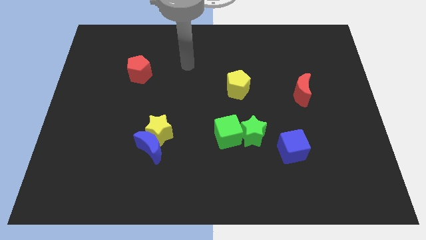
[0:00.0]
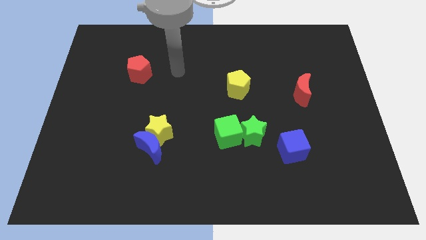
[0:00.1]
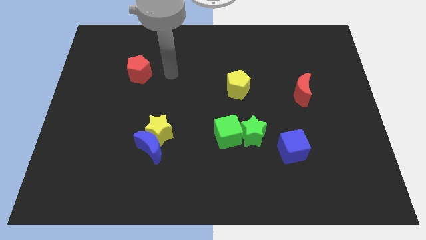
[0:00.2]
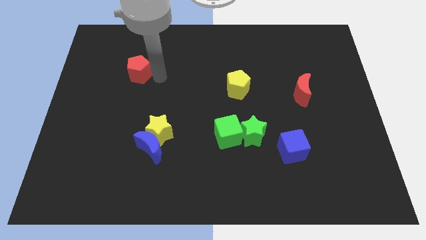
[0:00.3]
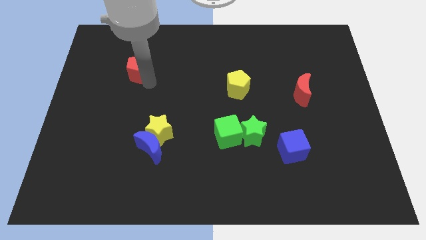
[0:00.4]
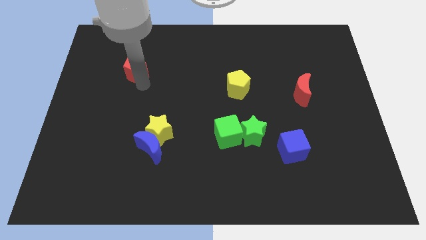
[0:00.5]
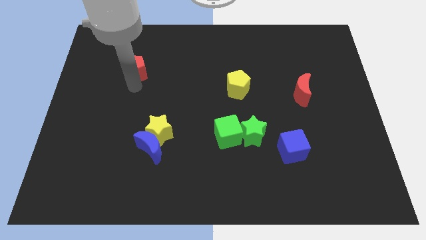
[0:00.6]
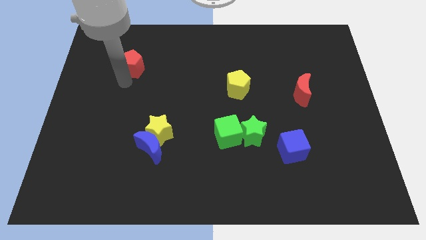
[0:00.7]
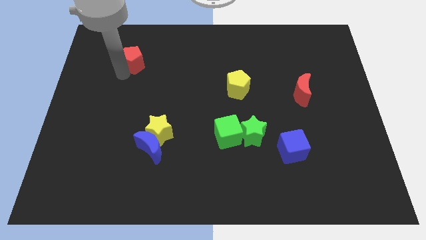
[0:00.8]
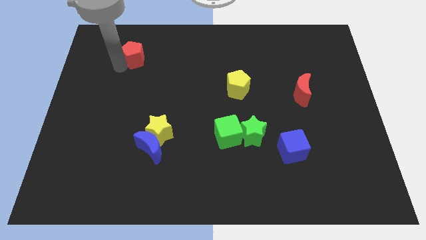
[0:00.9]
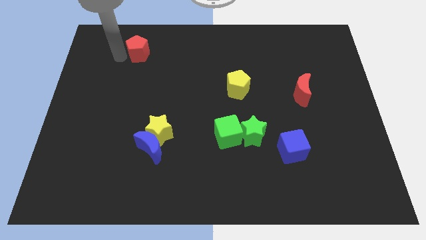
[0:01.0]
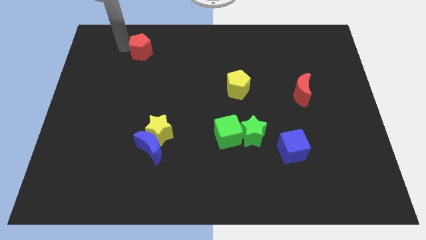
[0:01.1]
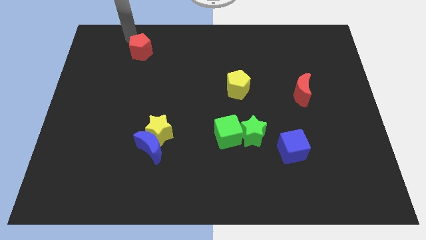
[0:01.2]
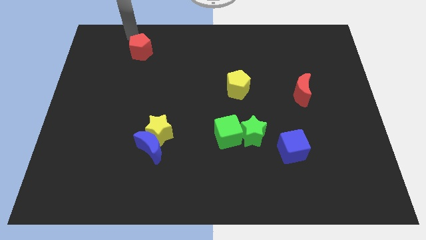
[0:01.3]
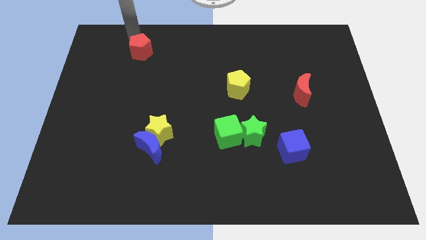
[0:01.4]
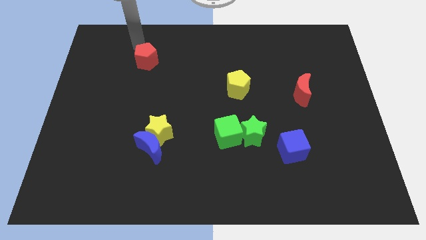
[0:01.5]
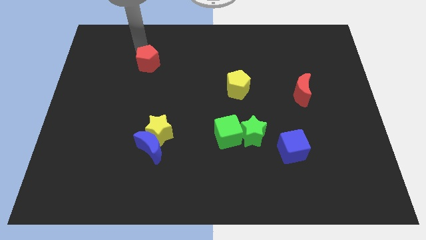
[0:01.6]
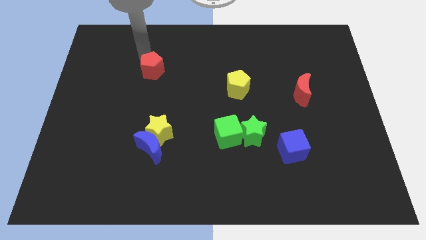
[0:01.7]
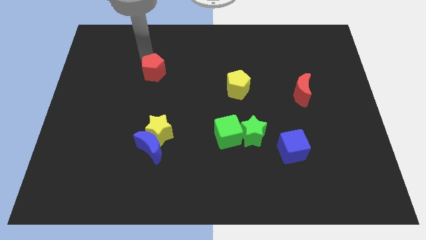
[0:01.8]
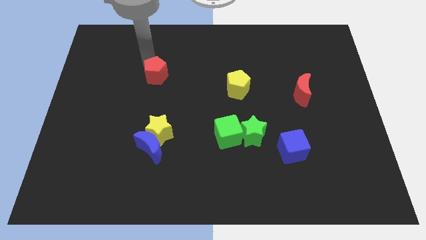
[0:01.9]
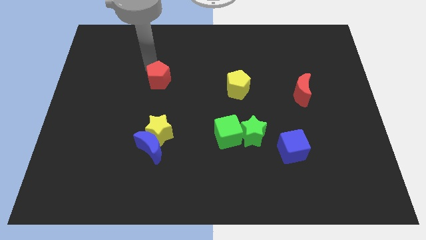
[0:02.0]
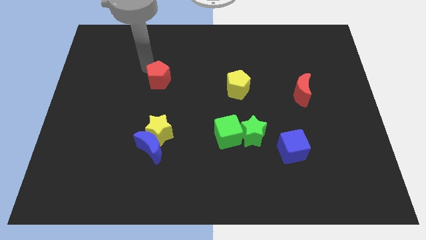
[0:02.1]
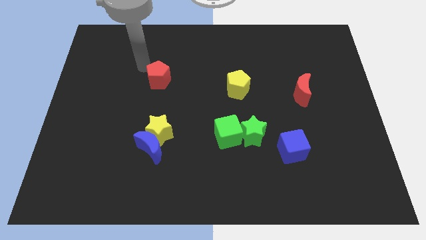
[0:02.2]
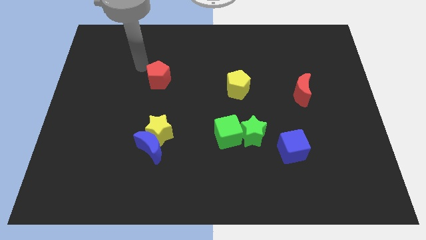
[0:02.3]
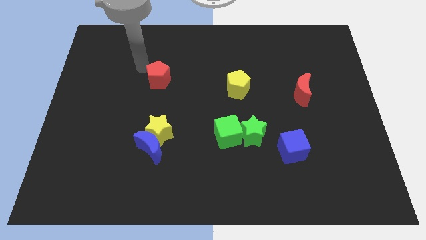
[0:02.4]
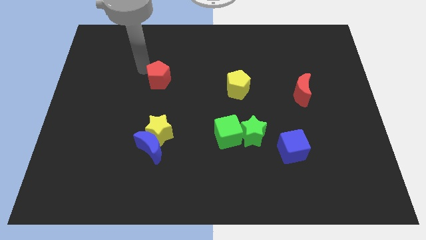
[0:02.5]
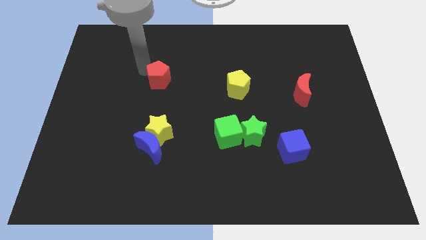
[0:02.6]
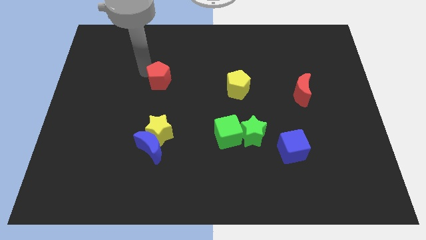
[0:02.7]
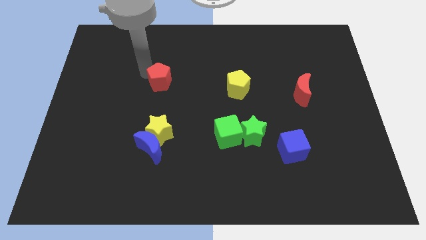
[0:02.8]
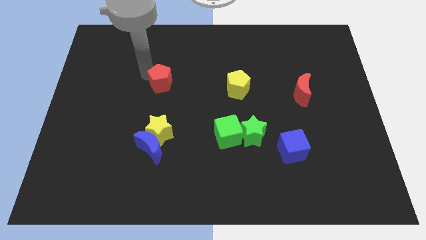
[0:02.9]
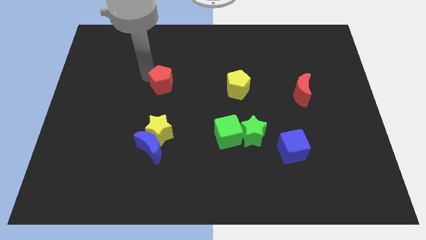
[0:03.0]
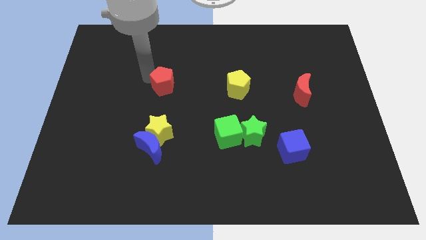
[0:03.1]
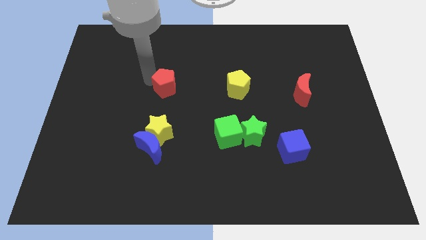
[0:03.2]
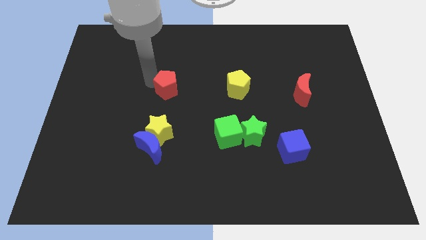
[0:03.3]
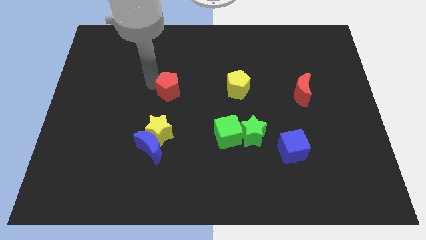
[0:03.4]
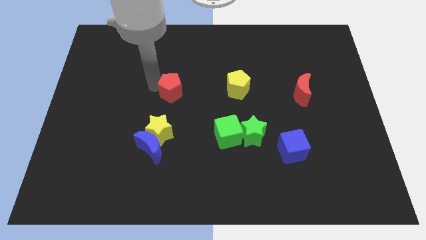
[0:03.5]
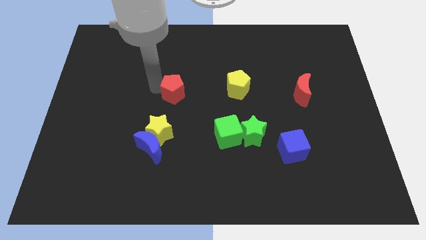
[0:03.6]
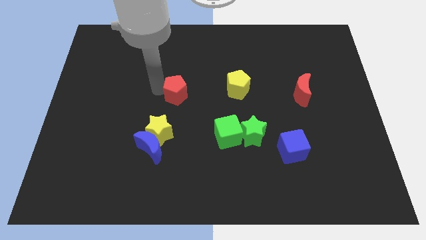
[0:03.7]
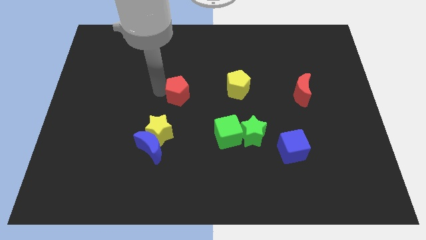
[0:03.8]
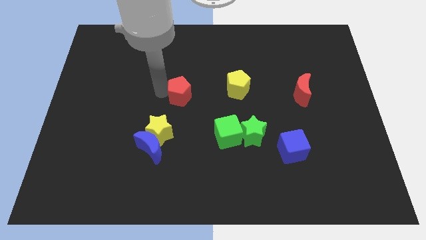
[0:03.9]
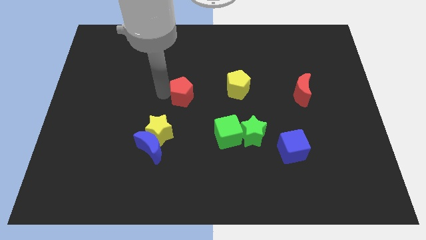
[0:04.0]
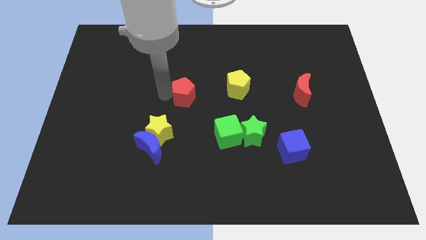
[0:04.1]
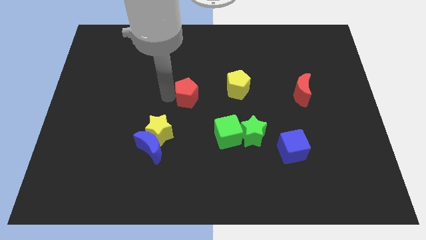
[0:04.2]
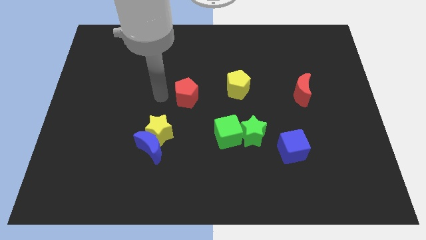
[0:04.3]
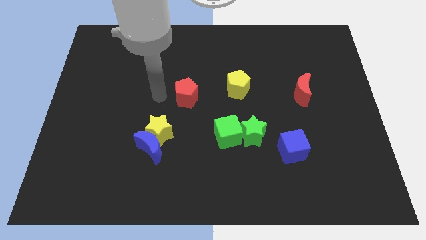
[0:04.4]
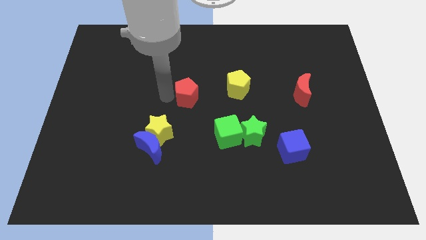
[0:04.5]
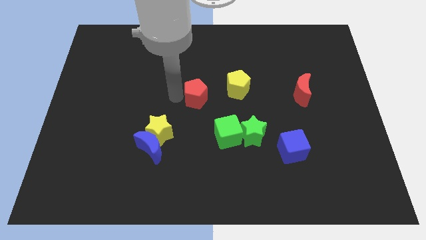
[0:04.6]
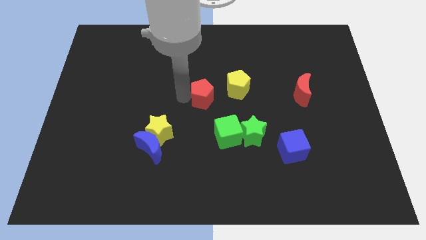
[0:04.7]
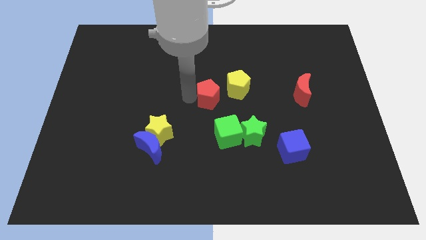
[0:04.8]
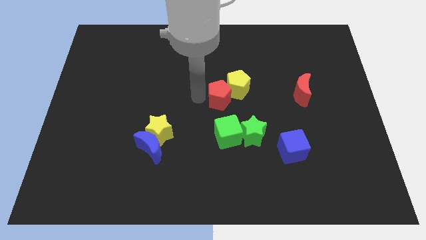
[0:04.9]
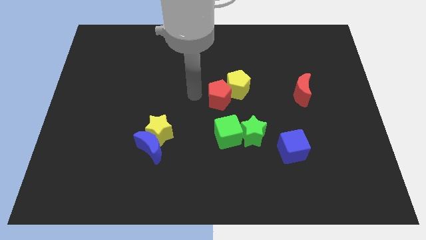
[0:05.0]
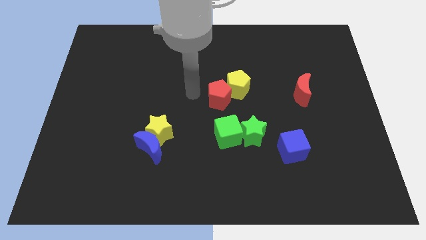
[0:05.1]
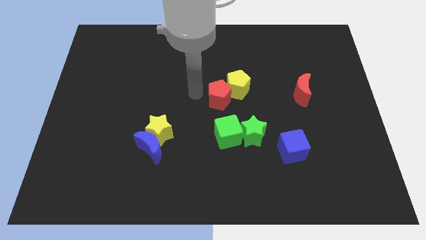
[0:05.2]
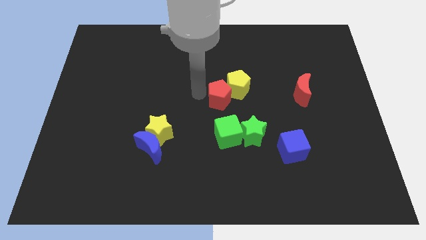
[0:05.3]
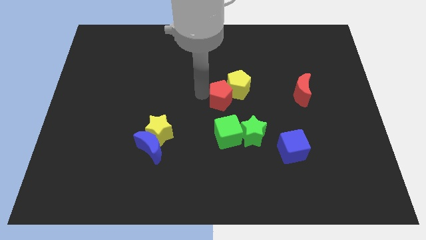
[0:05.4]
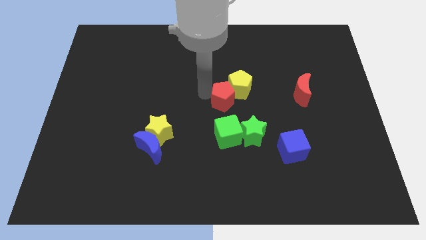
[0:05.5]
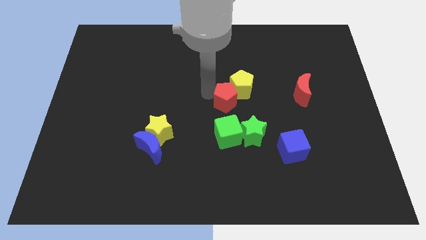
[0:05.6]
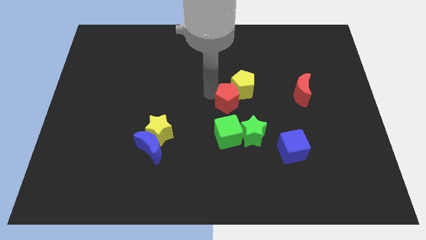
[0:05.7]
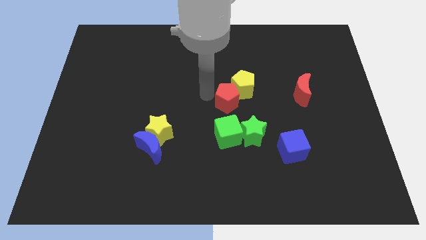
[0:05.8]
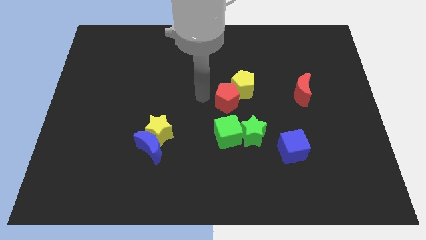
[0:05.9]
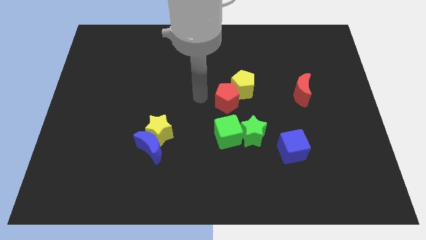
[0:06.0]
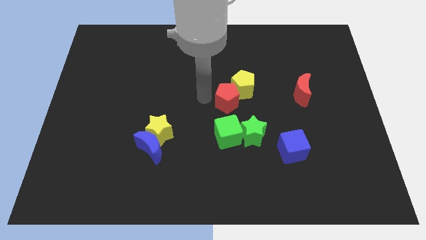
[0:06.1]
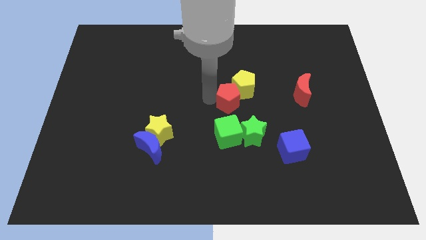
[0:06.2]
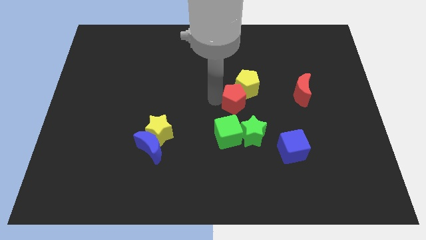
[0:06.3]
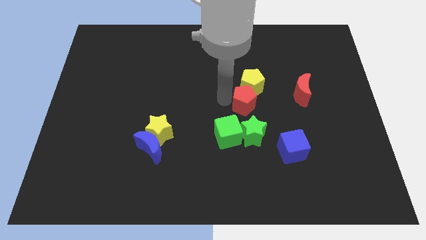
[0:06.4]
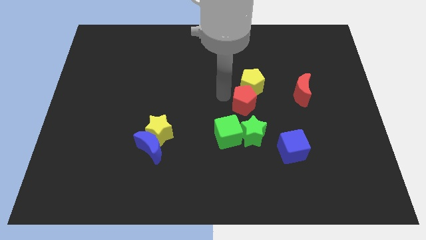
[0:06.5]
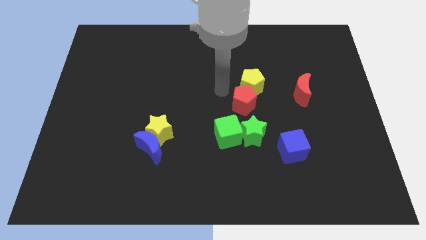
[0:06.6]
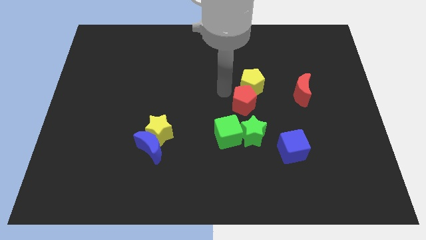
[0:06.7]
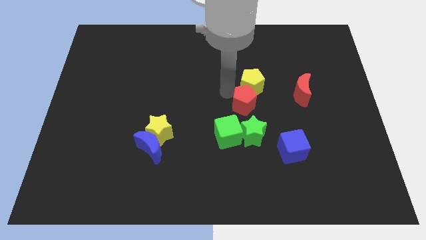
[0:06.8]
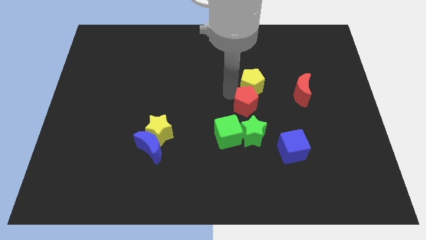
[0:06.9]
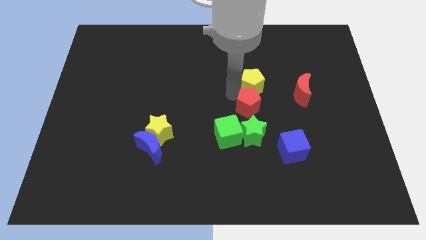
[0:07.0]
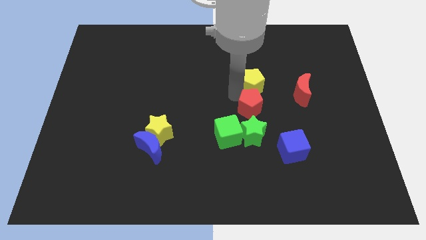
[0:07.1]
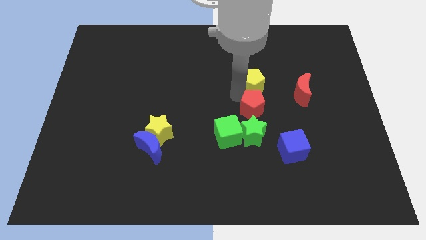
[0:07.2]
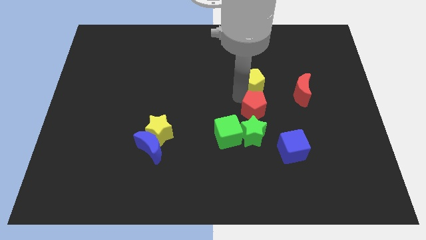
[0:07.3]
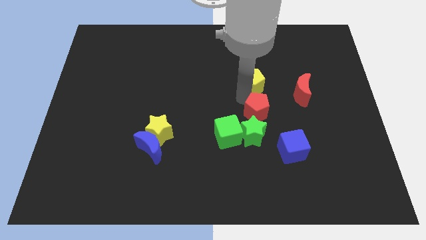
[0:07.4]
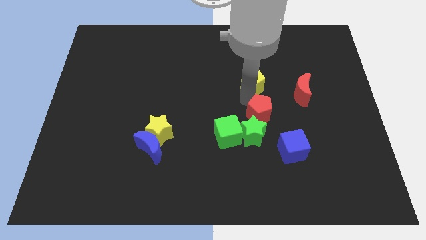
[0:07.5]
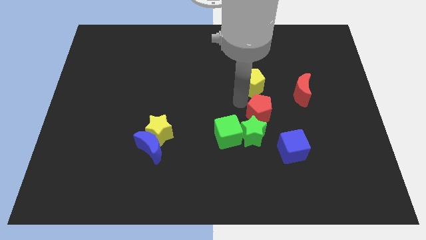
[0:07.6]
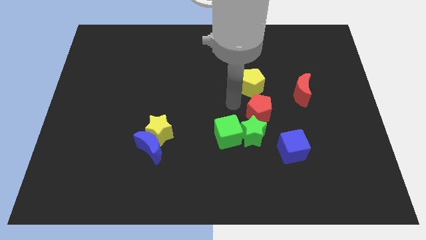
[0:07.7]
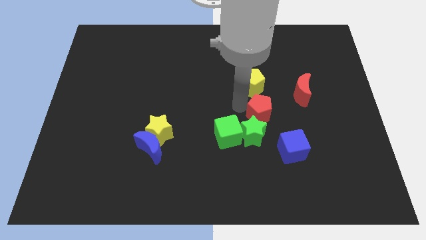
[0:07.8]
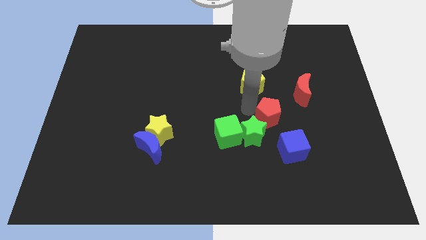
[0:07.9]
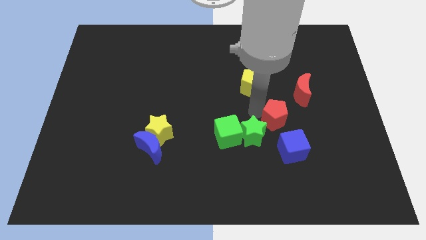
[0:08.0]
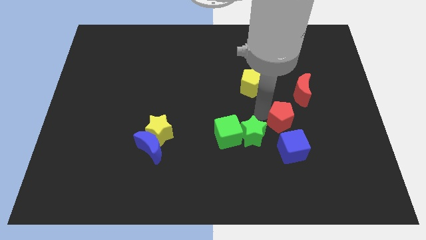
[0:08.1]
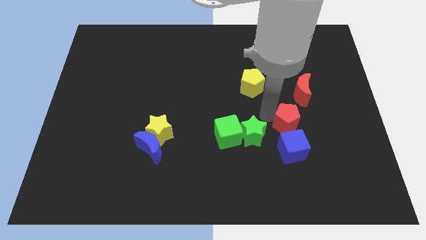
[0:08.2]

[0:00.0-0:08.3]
move the red pentagon to the bottom of the red moon
